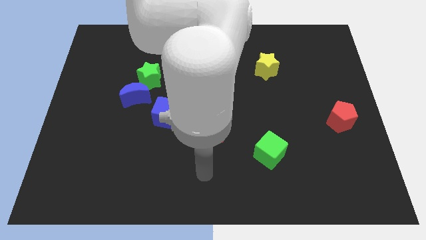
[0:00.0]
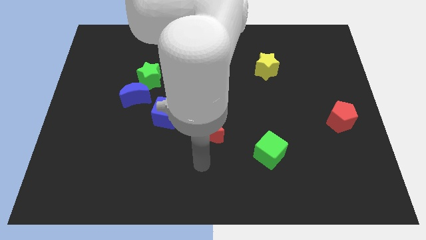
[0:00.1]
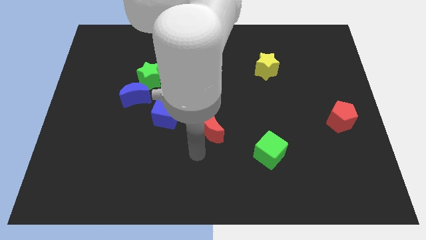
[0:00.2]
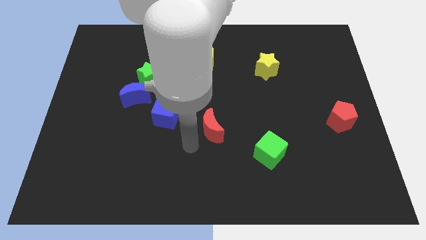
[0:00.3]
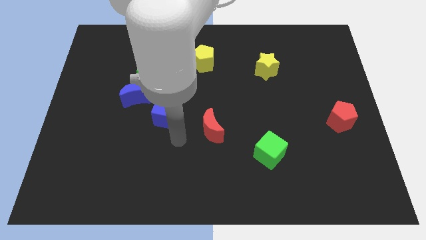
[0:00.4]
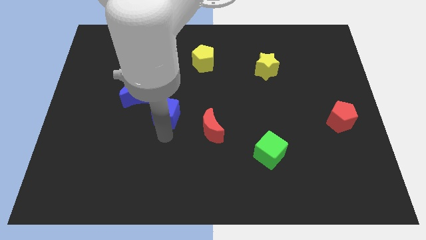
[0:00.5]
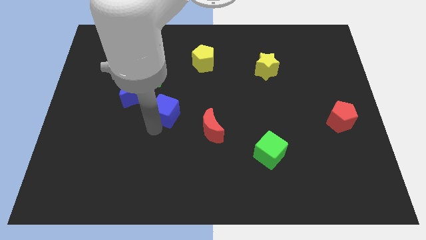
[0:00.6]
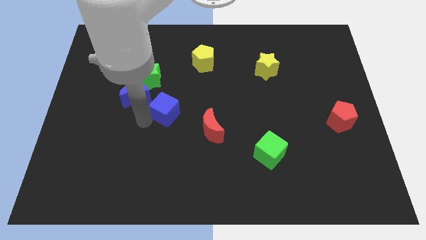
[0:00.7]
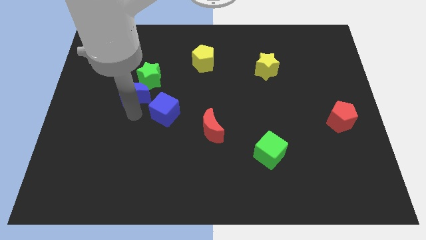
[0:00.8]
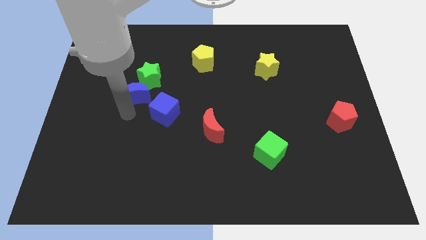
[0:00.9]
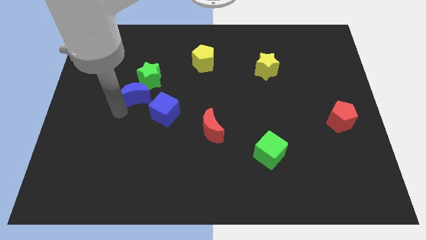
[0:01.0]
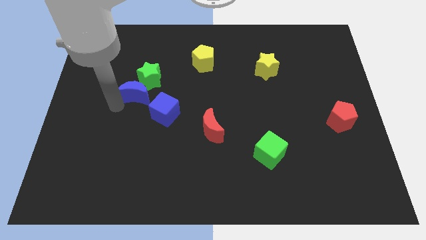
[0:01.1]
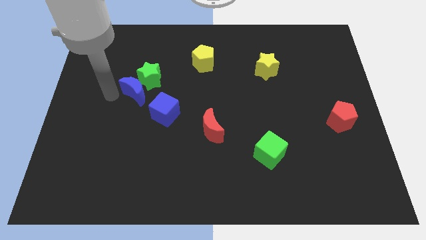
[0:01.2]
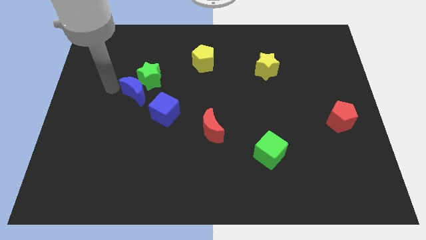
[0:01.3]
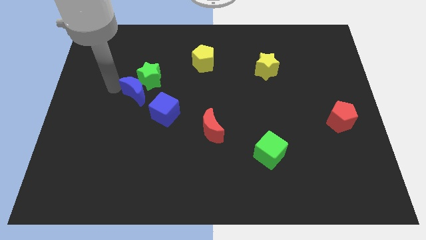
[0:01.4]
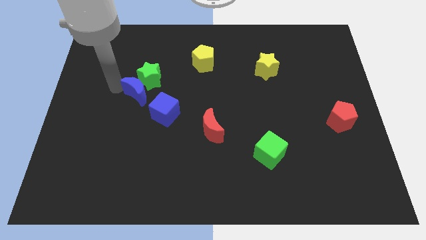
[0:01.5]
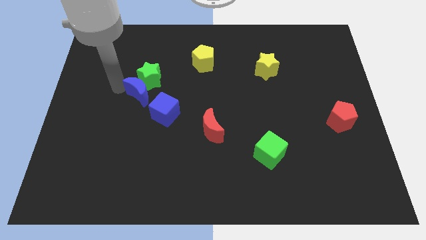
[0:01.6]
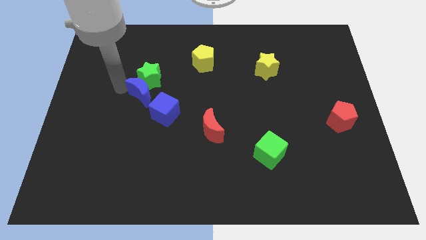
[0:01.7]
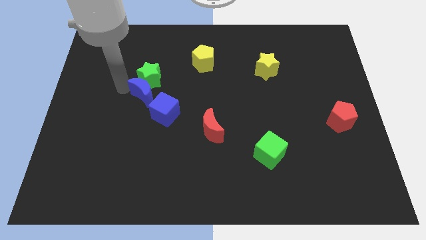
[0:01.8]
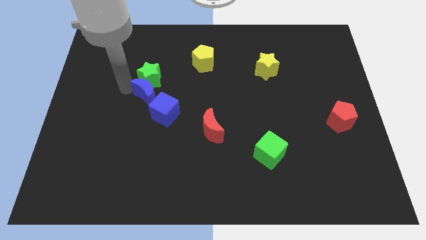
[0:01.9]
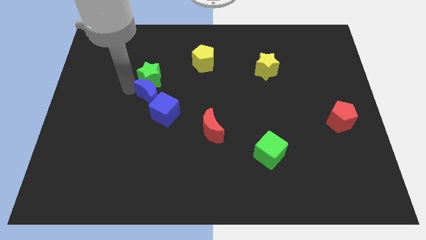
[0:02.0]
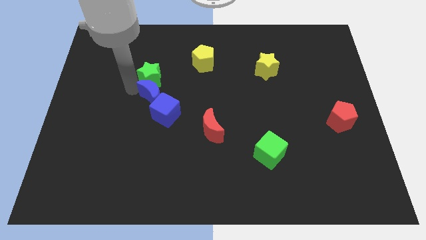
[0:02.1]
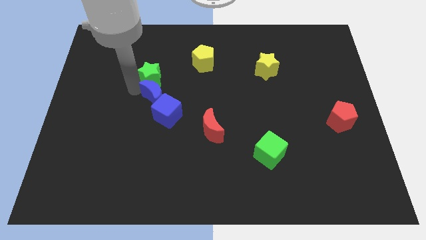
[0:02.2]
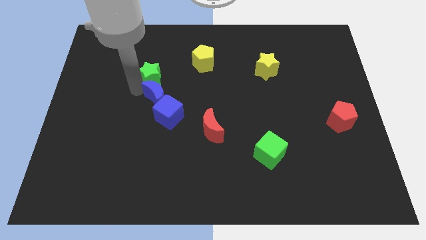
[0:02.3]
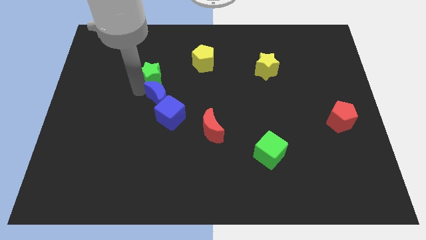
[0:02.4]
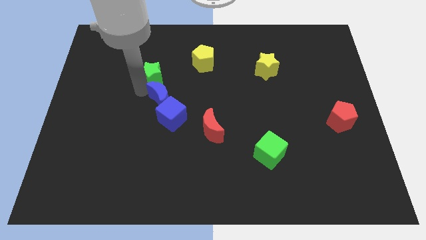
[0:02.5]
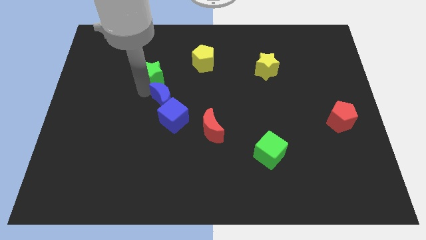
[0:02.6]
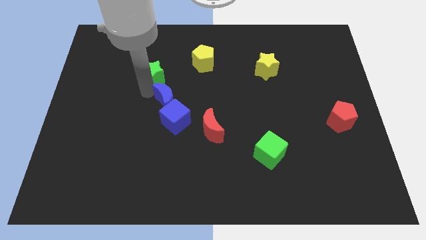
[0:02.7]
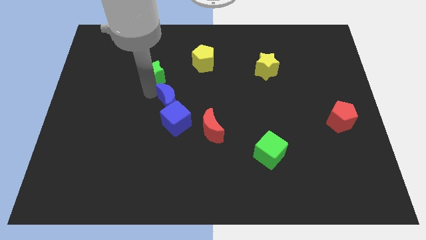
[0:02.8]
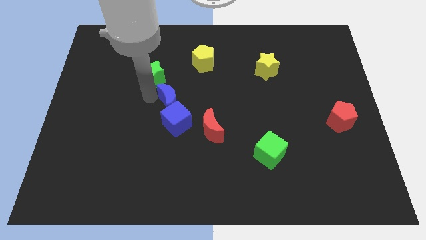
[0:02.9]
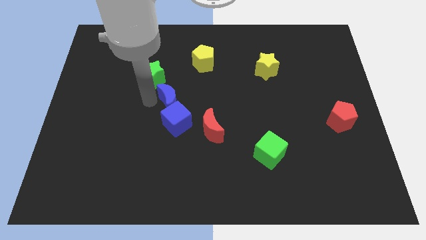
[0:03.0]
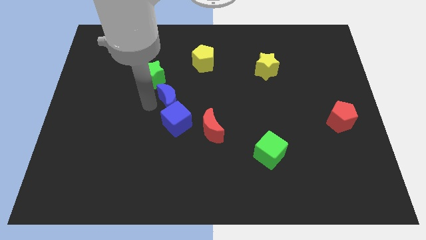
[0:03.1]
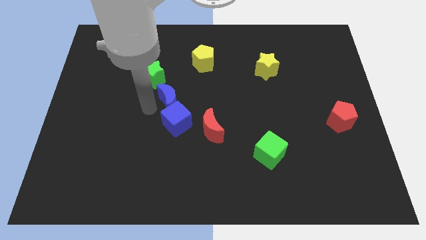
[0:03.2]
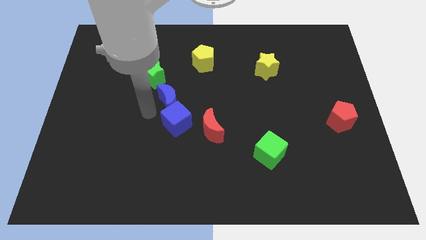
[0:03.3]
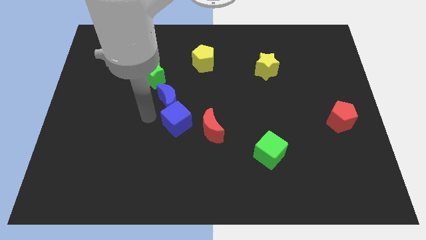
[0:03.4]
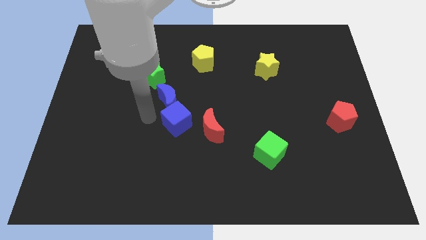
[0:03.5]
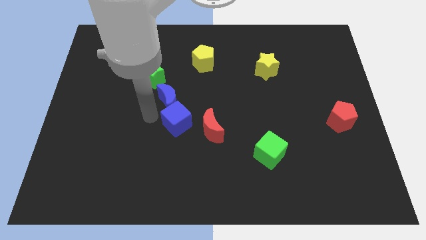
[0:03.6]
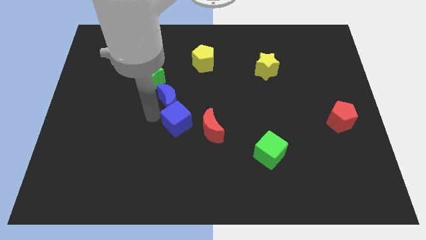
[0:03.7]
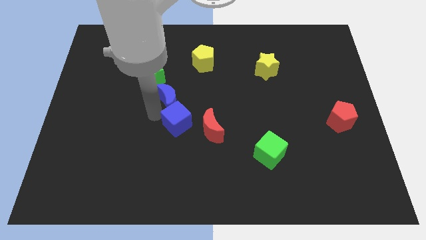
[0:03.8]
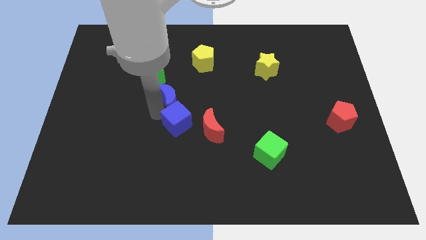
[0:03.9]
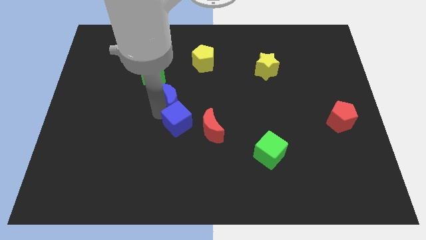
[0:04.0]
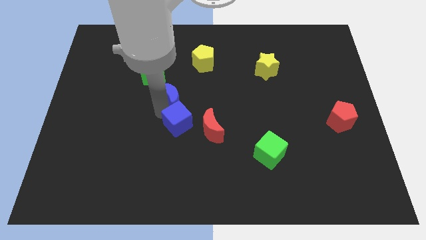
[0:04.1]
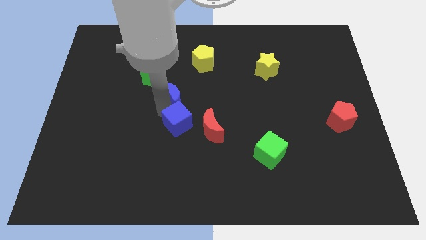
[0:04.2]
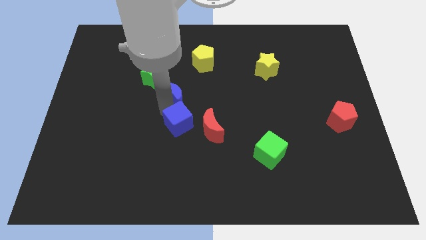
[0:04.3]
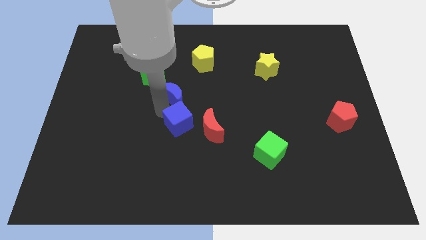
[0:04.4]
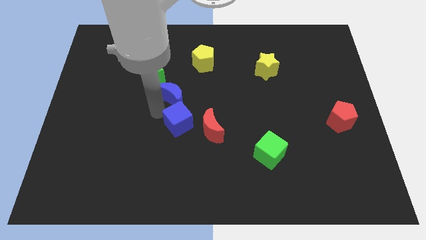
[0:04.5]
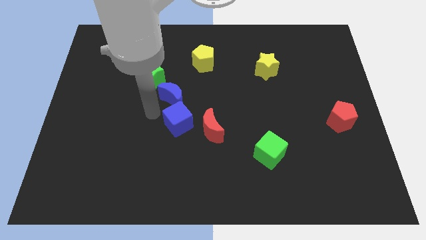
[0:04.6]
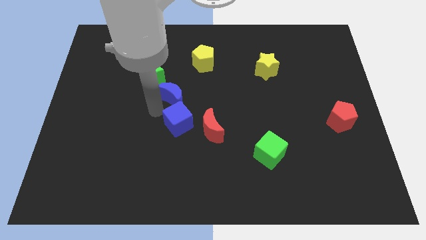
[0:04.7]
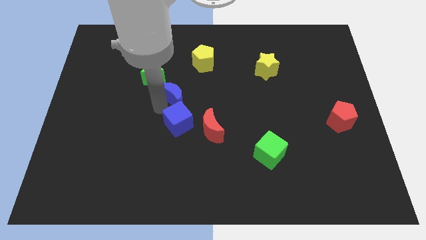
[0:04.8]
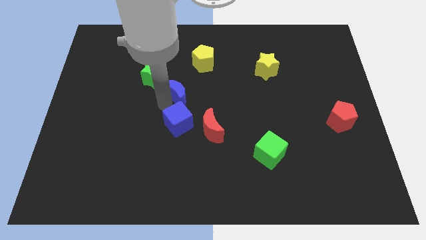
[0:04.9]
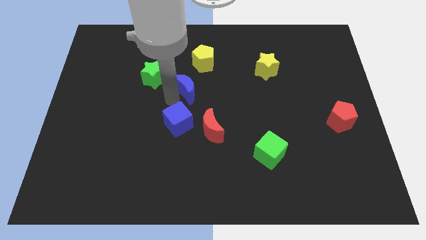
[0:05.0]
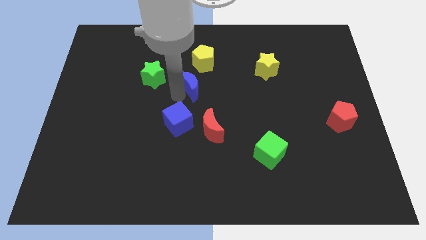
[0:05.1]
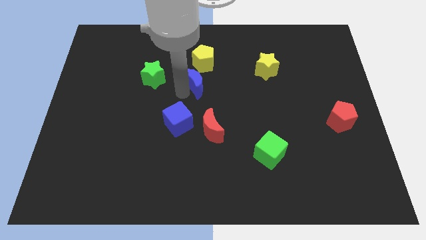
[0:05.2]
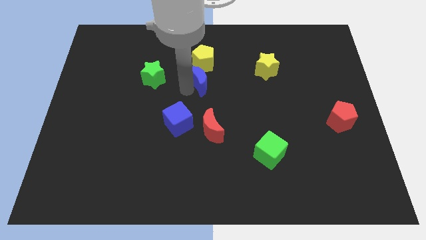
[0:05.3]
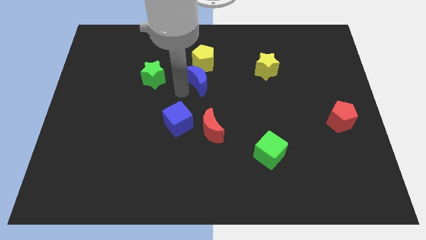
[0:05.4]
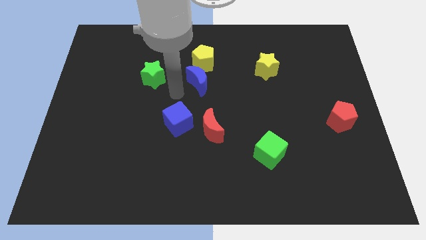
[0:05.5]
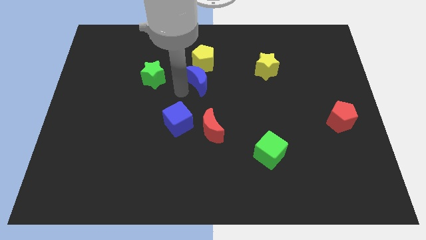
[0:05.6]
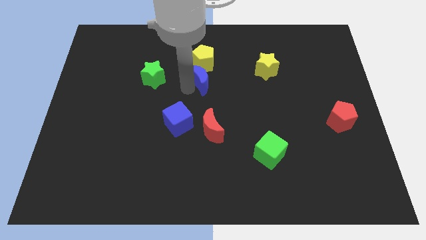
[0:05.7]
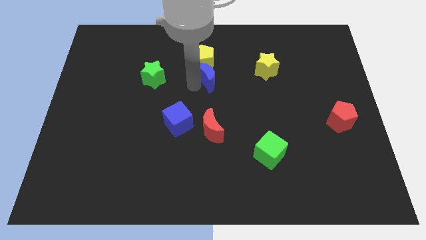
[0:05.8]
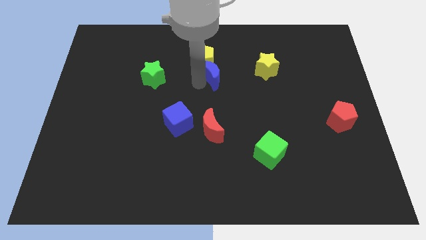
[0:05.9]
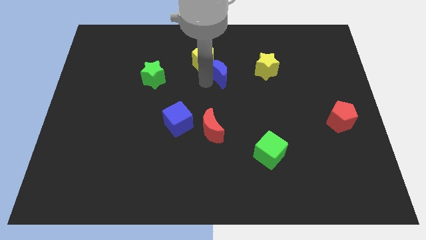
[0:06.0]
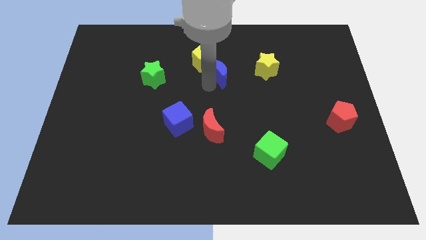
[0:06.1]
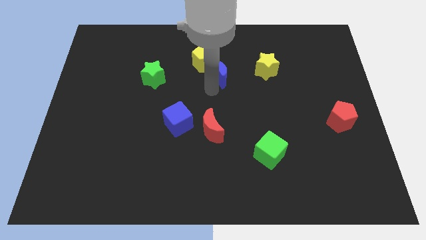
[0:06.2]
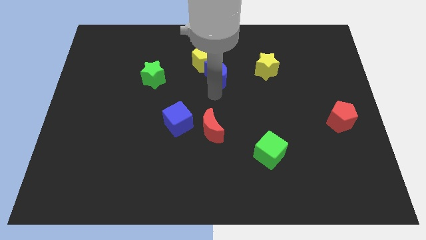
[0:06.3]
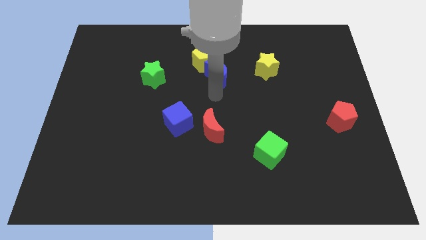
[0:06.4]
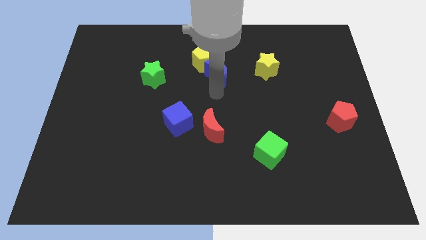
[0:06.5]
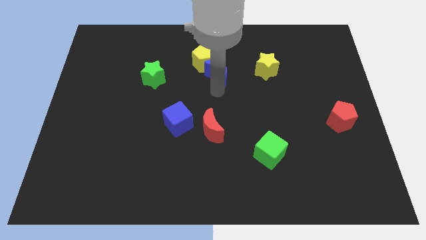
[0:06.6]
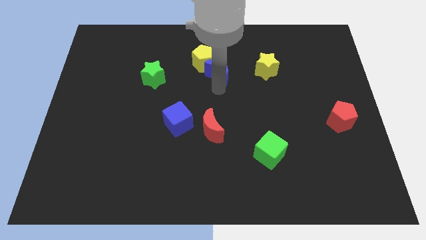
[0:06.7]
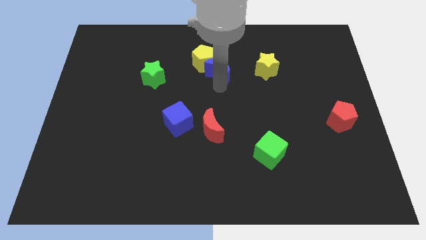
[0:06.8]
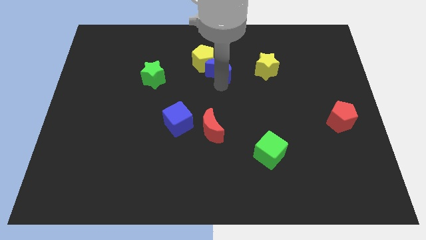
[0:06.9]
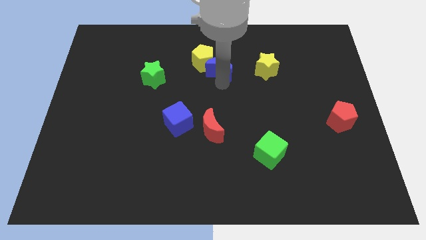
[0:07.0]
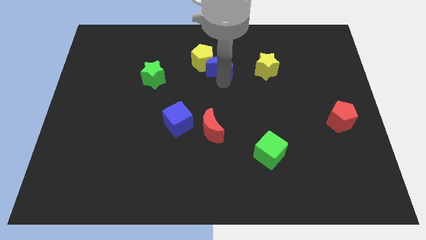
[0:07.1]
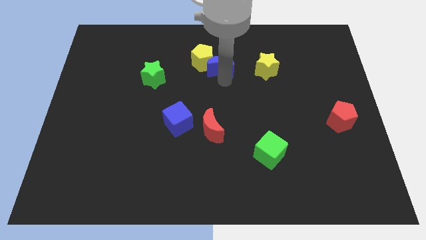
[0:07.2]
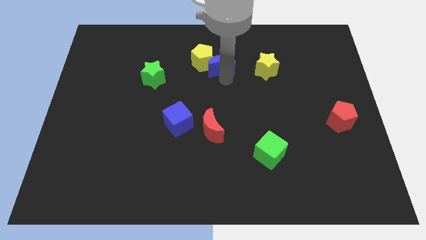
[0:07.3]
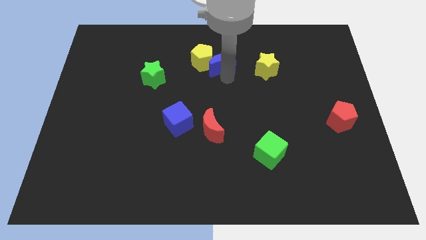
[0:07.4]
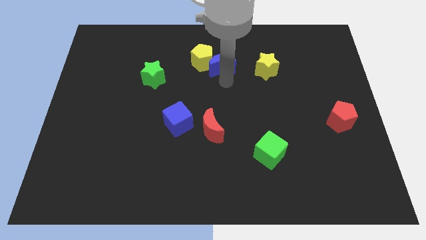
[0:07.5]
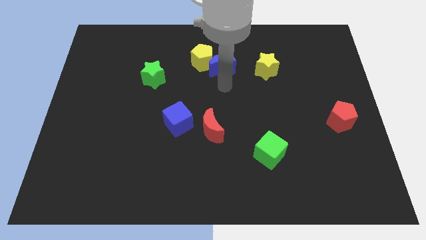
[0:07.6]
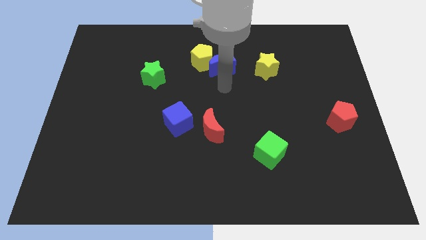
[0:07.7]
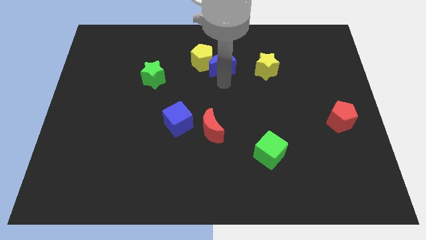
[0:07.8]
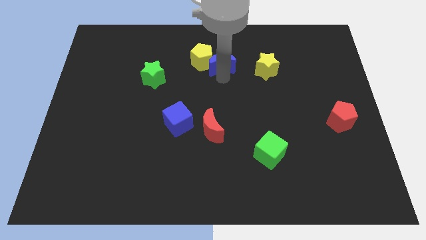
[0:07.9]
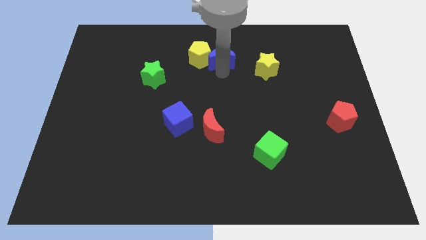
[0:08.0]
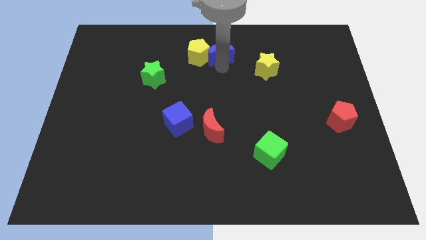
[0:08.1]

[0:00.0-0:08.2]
slide the blue moon to the top side
